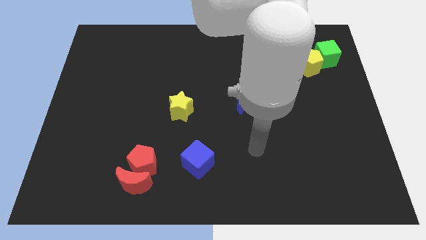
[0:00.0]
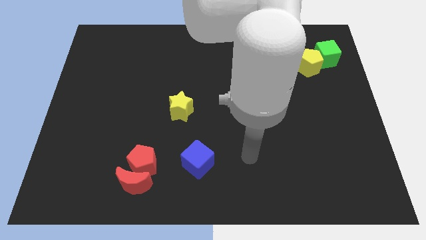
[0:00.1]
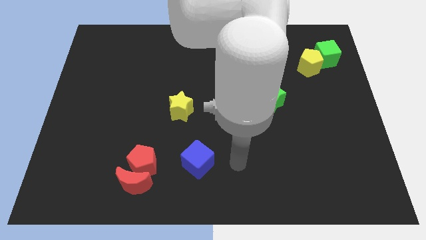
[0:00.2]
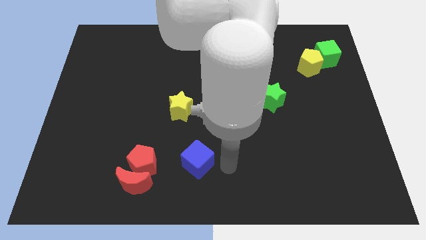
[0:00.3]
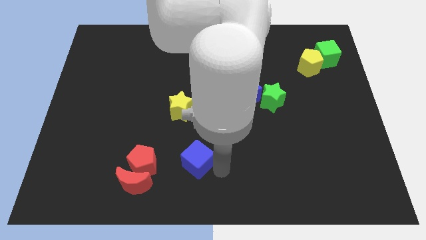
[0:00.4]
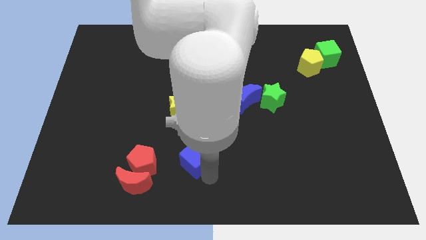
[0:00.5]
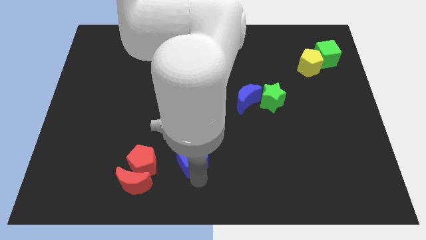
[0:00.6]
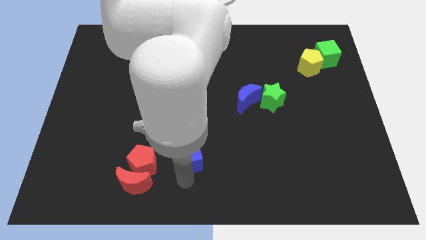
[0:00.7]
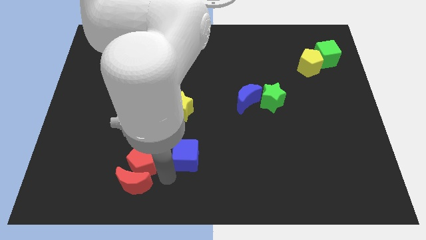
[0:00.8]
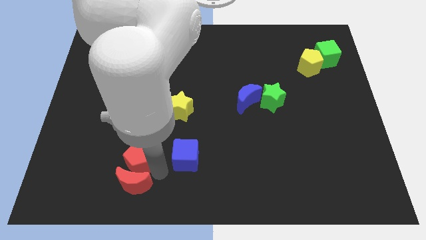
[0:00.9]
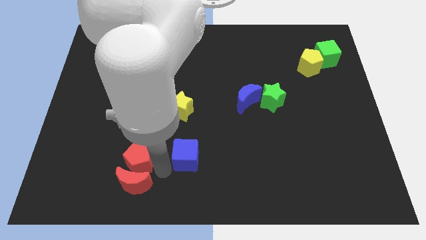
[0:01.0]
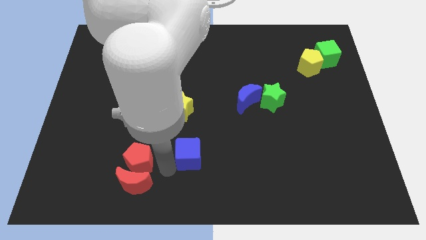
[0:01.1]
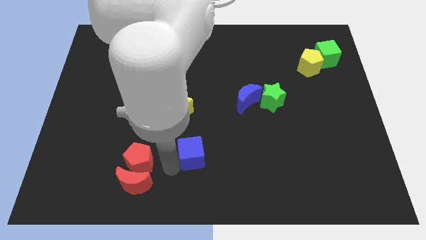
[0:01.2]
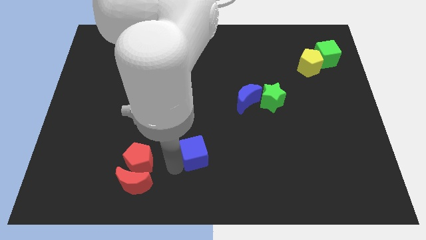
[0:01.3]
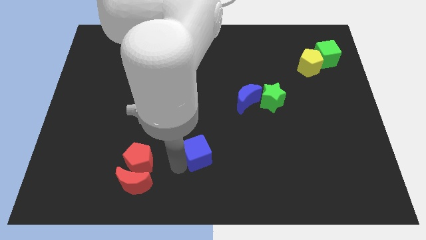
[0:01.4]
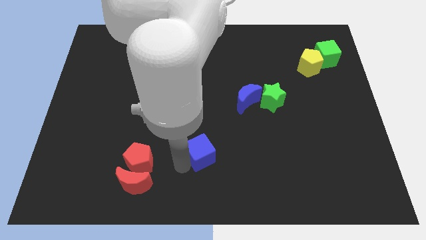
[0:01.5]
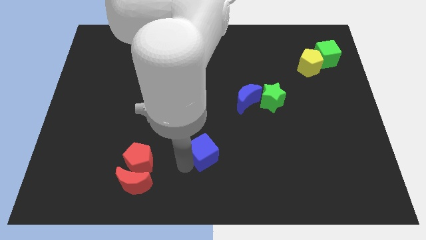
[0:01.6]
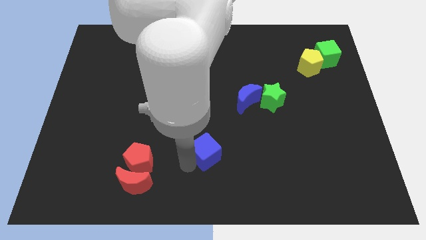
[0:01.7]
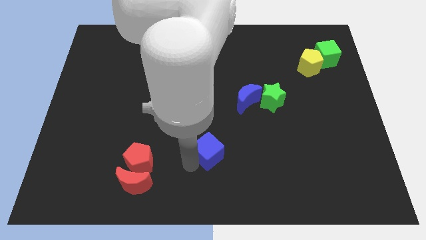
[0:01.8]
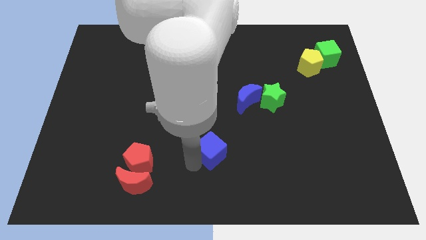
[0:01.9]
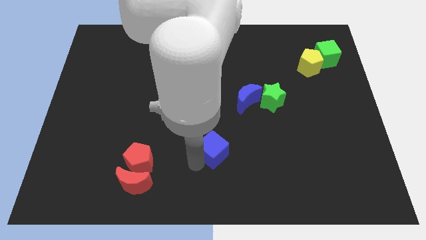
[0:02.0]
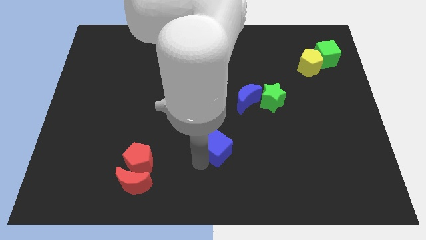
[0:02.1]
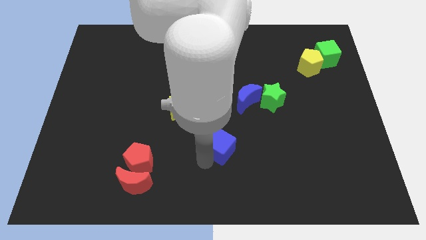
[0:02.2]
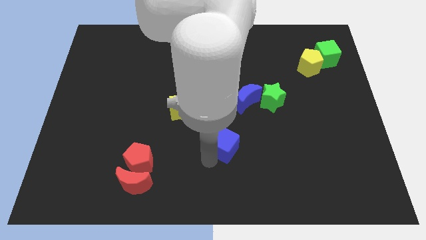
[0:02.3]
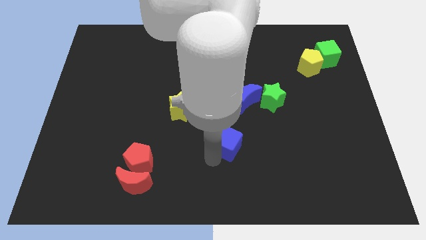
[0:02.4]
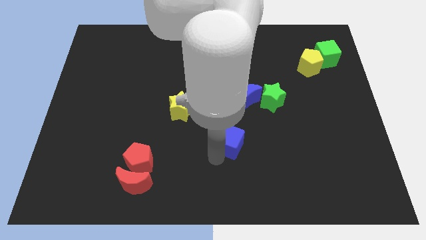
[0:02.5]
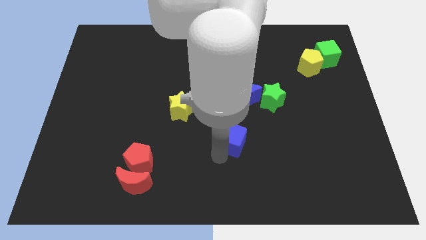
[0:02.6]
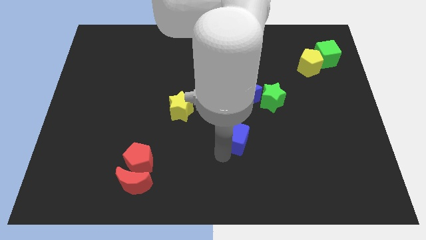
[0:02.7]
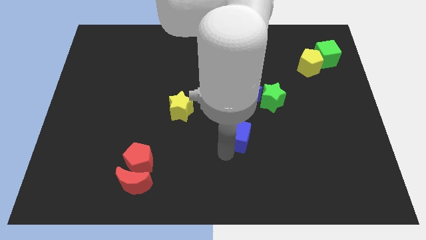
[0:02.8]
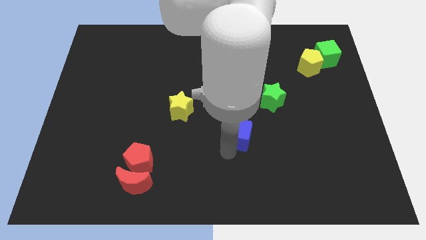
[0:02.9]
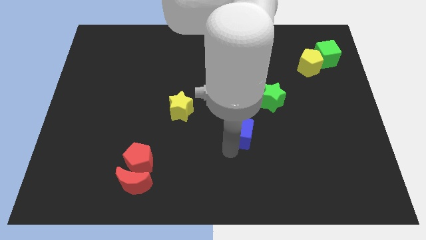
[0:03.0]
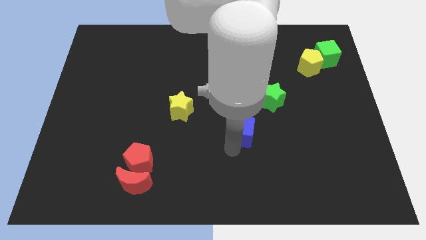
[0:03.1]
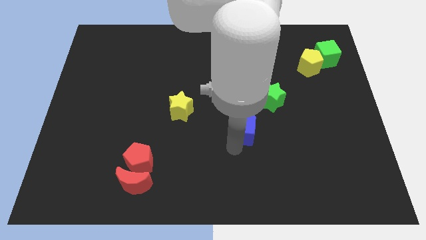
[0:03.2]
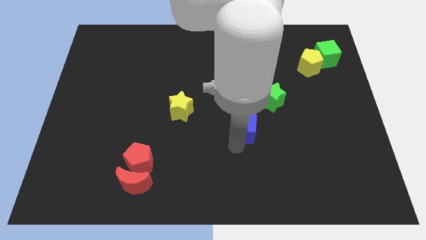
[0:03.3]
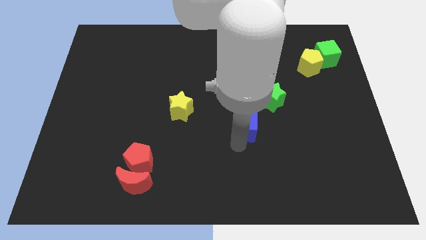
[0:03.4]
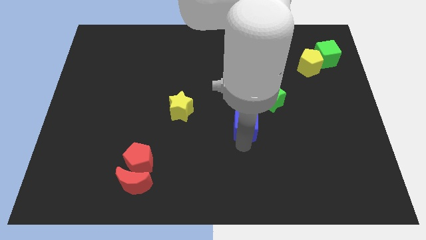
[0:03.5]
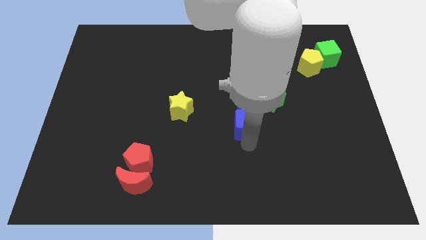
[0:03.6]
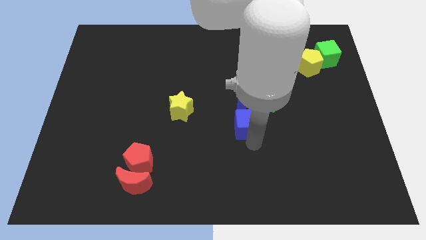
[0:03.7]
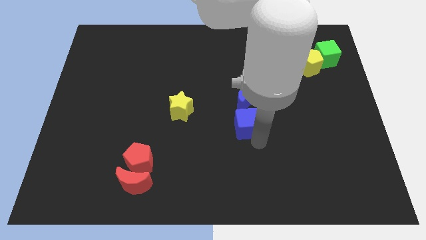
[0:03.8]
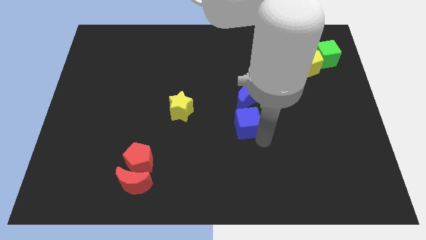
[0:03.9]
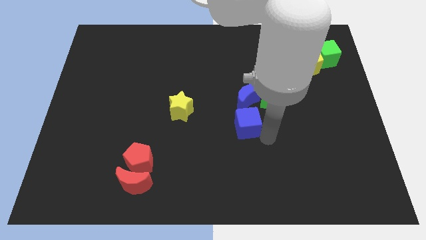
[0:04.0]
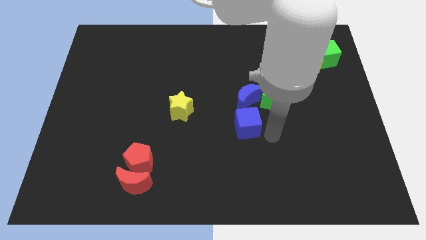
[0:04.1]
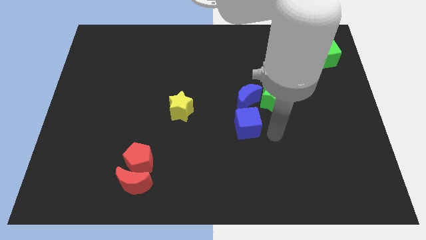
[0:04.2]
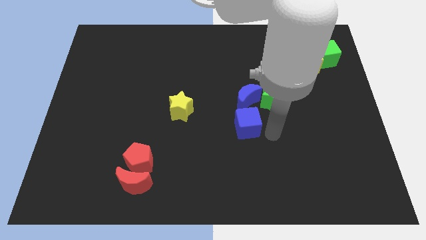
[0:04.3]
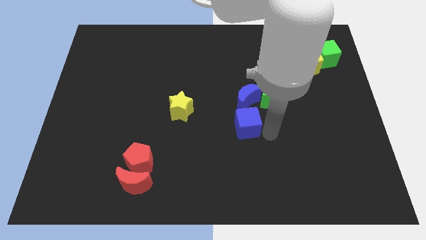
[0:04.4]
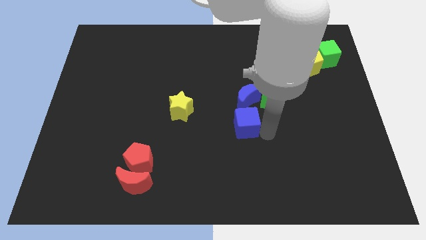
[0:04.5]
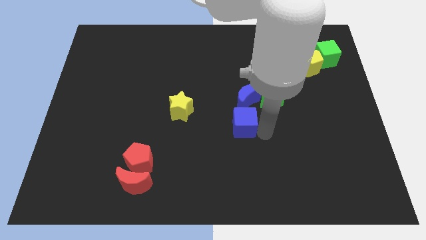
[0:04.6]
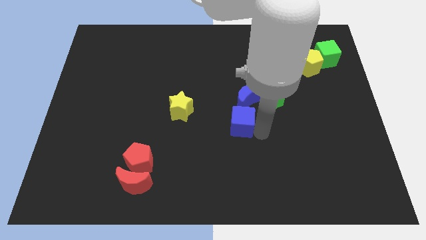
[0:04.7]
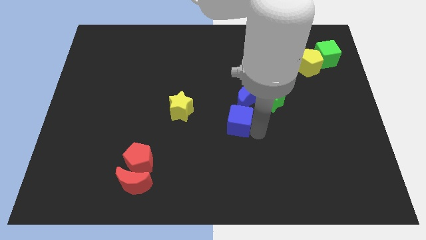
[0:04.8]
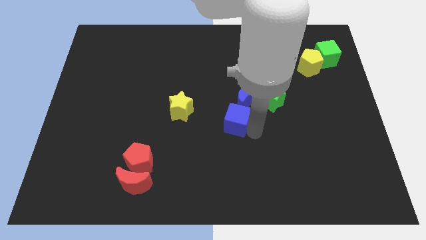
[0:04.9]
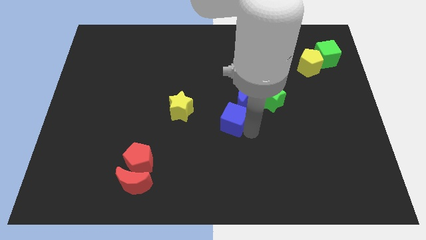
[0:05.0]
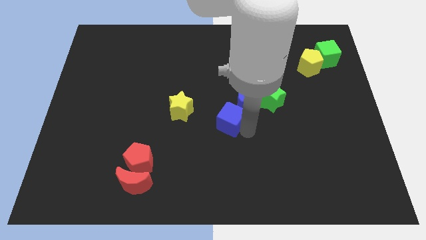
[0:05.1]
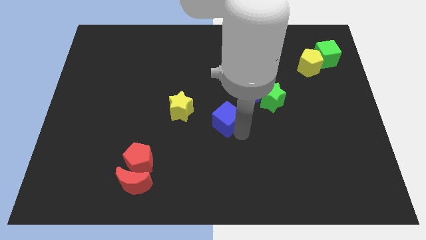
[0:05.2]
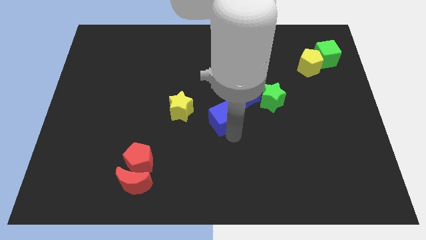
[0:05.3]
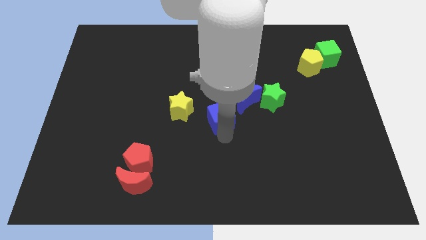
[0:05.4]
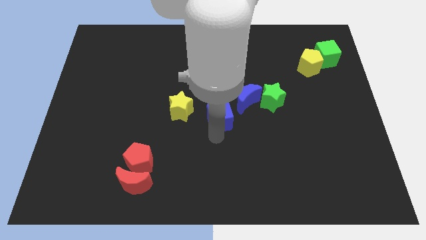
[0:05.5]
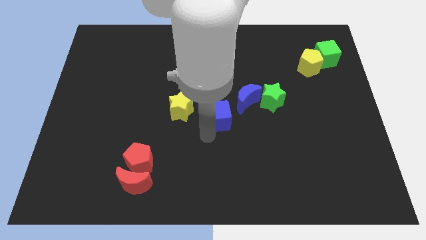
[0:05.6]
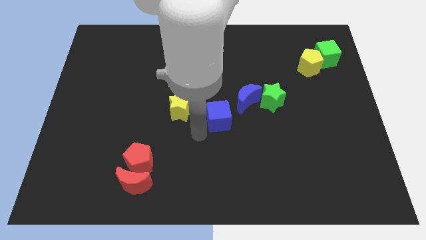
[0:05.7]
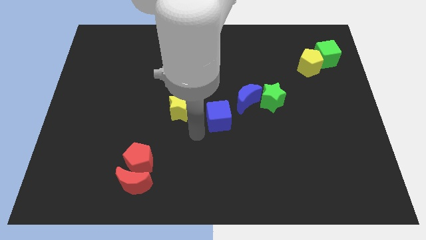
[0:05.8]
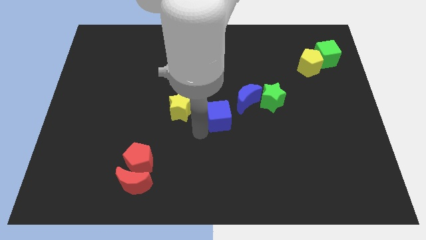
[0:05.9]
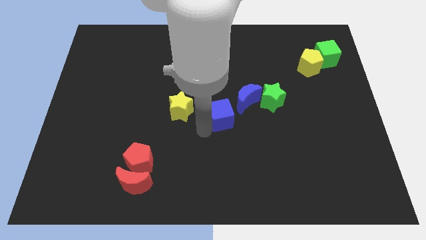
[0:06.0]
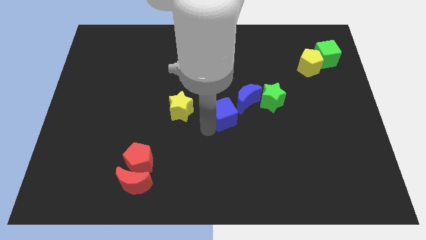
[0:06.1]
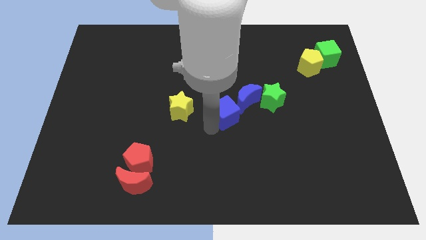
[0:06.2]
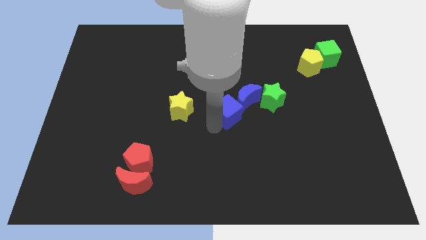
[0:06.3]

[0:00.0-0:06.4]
move the blue cube close to the blue moon
